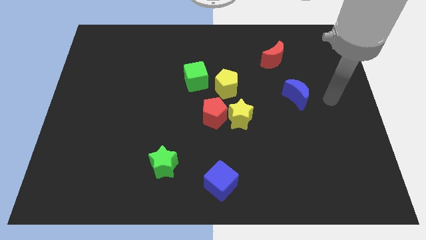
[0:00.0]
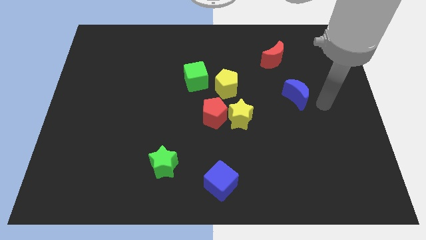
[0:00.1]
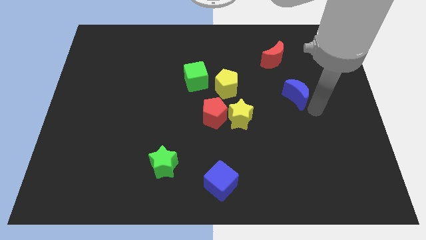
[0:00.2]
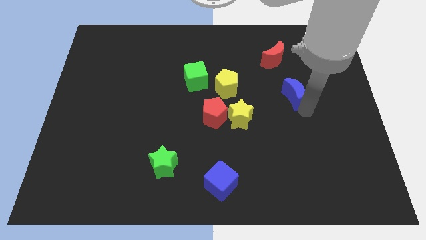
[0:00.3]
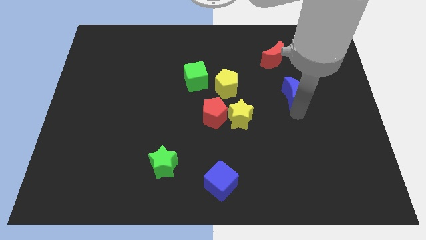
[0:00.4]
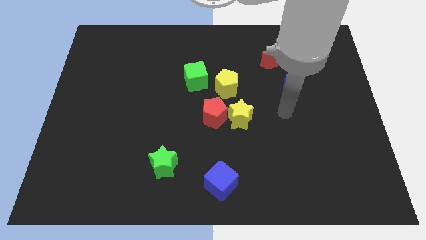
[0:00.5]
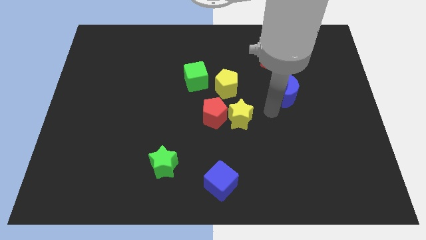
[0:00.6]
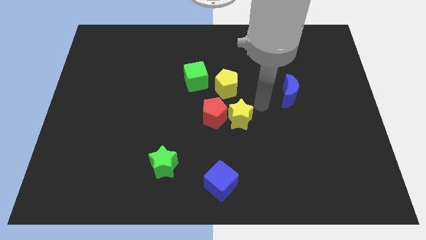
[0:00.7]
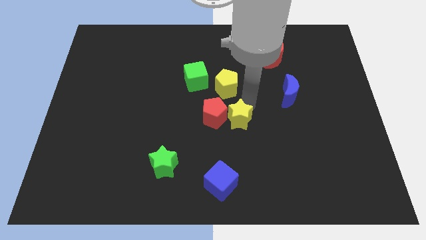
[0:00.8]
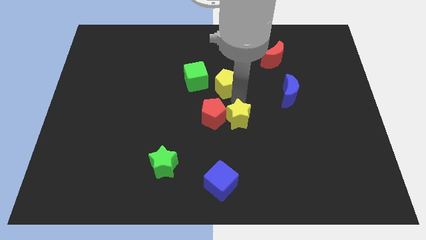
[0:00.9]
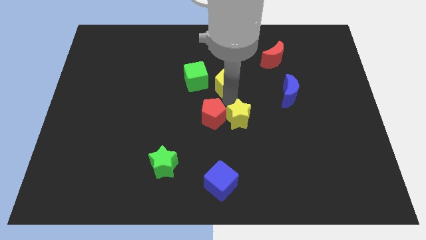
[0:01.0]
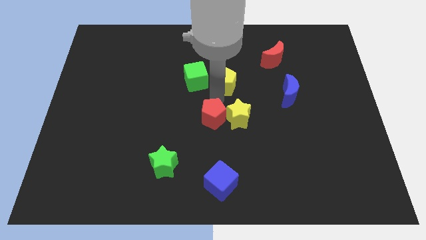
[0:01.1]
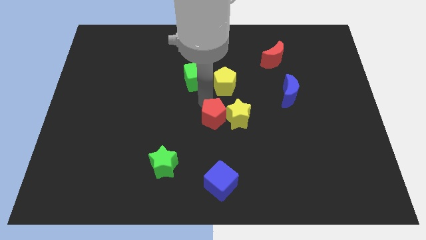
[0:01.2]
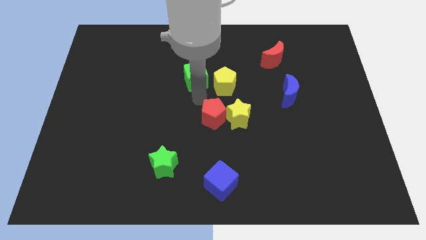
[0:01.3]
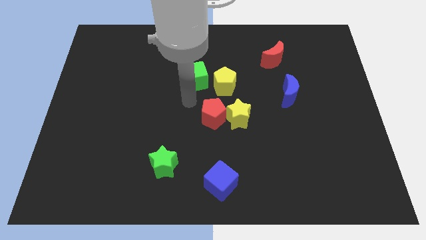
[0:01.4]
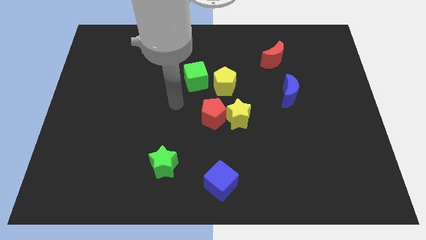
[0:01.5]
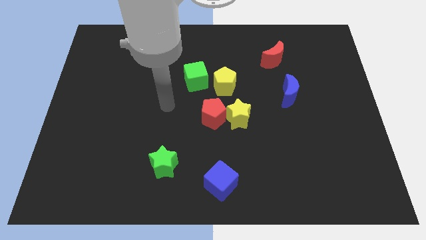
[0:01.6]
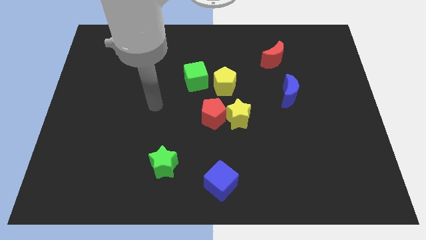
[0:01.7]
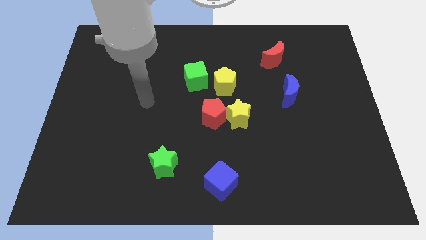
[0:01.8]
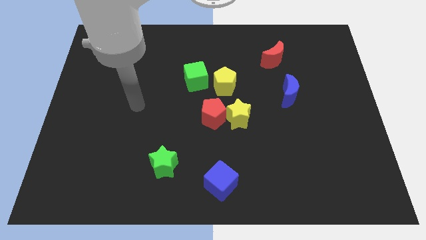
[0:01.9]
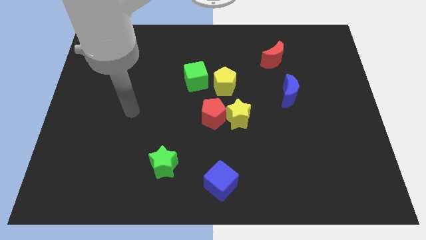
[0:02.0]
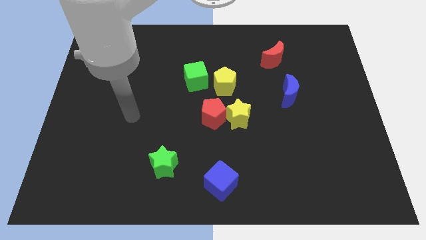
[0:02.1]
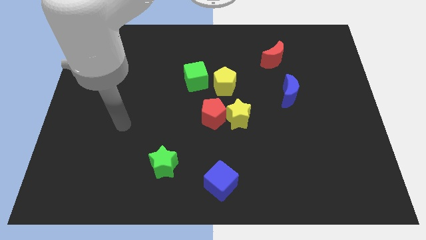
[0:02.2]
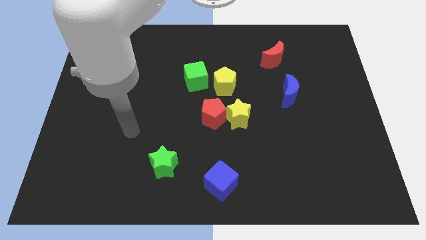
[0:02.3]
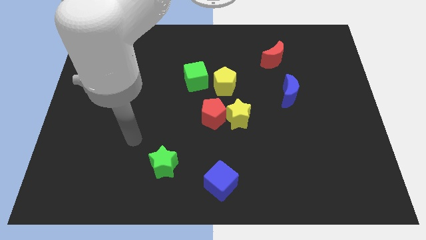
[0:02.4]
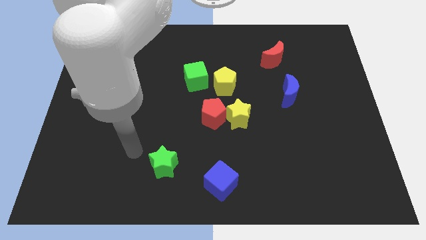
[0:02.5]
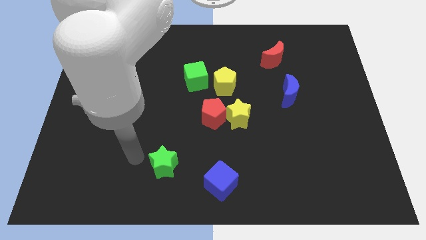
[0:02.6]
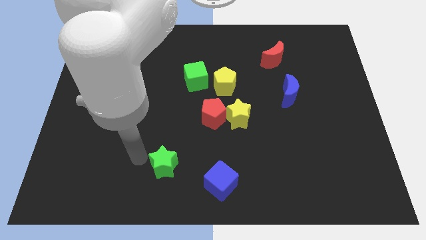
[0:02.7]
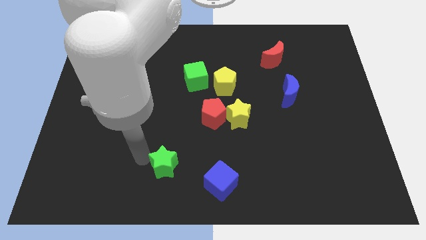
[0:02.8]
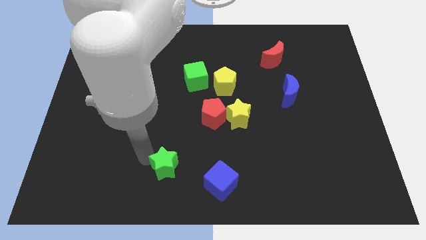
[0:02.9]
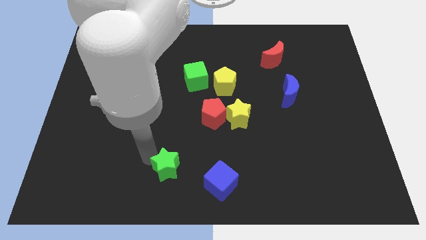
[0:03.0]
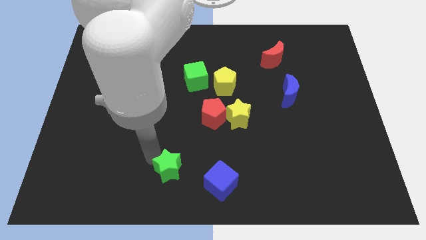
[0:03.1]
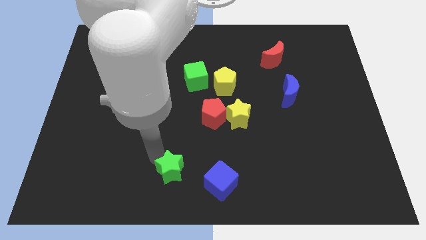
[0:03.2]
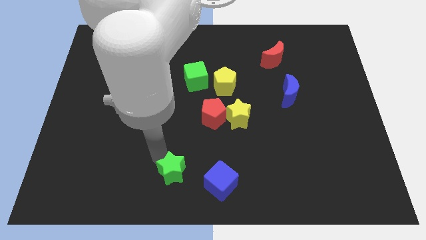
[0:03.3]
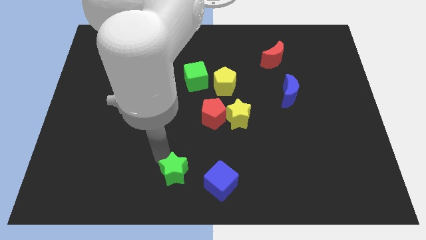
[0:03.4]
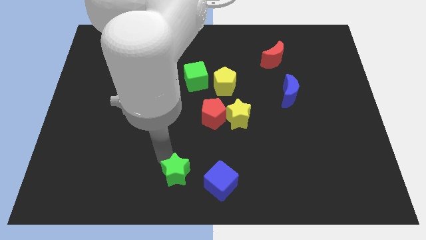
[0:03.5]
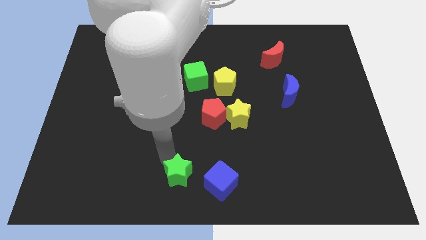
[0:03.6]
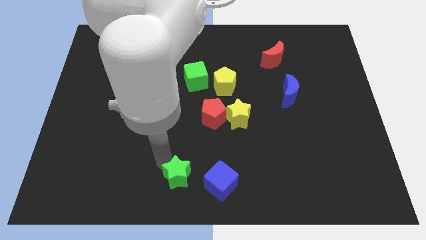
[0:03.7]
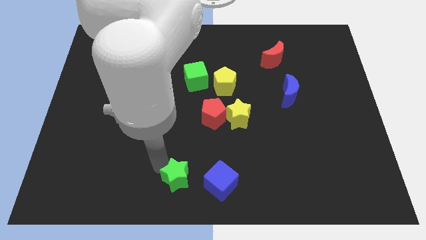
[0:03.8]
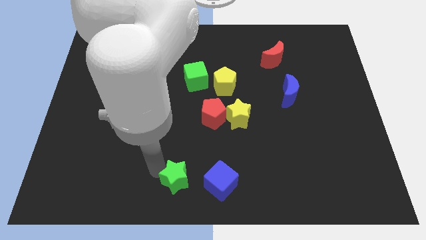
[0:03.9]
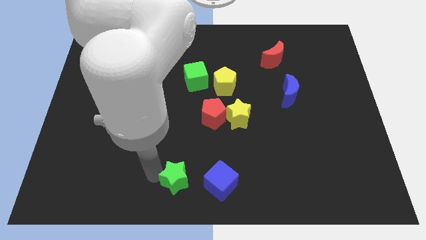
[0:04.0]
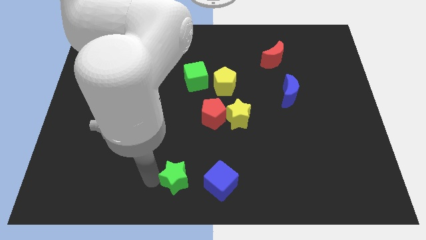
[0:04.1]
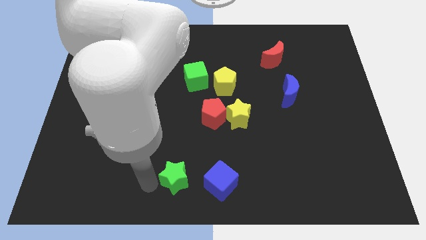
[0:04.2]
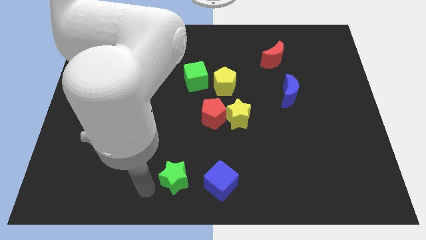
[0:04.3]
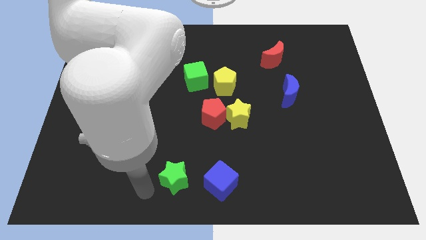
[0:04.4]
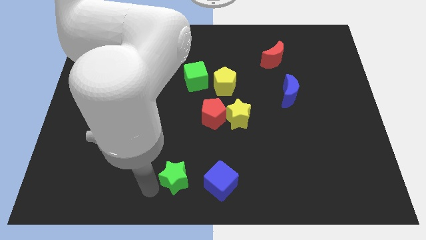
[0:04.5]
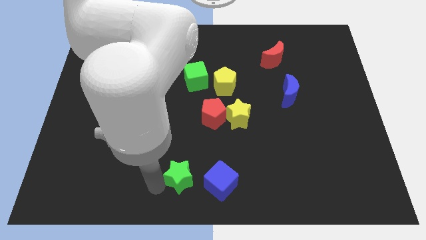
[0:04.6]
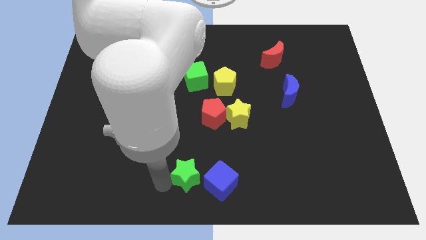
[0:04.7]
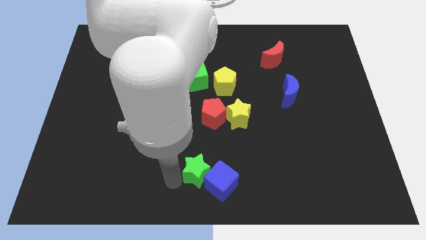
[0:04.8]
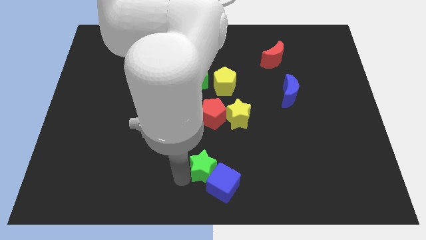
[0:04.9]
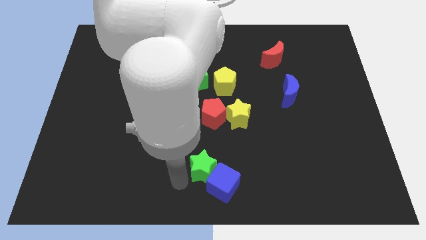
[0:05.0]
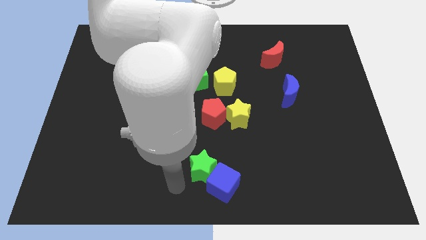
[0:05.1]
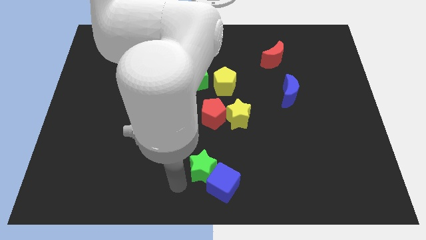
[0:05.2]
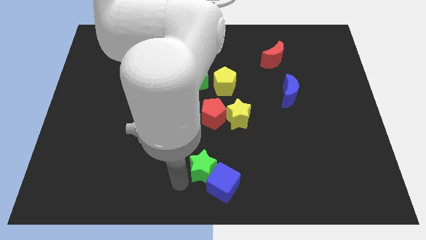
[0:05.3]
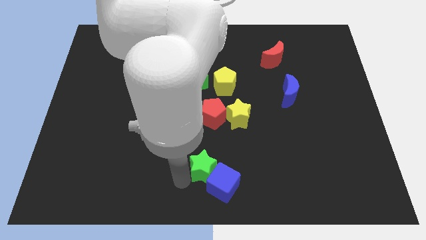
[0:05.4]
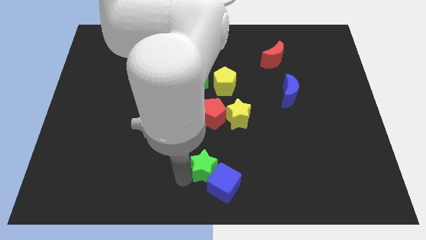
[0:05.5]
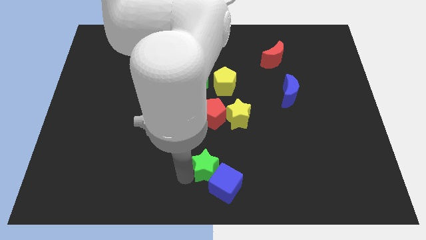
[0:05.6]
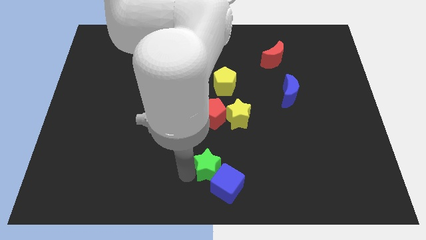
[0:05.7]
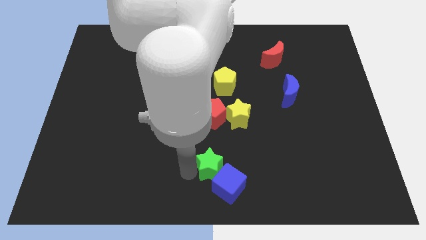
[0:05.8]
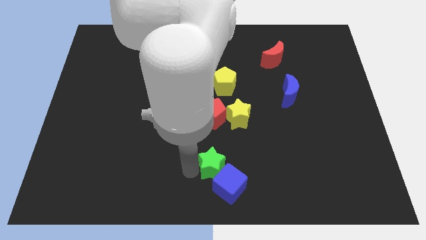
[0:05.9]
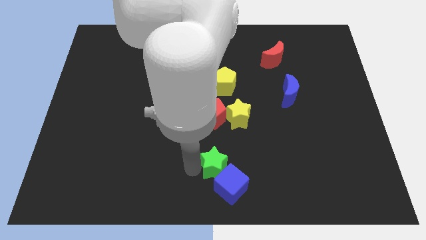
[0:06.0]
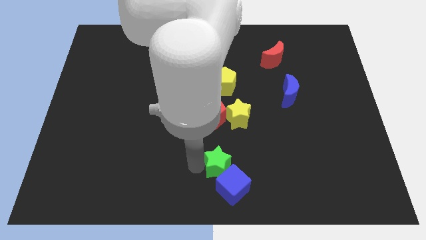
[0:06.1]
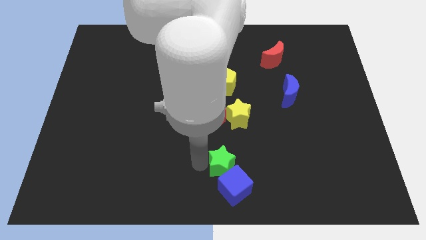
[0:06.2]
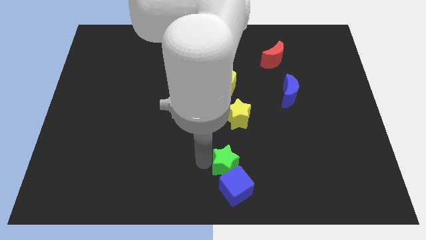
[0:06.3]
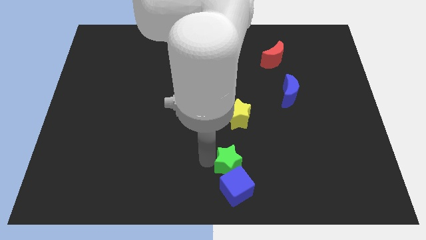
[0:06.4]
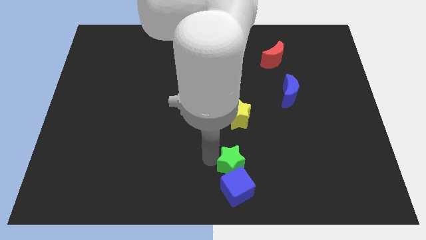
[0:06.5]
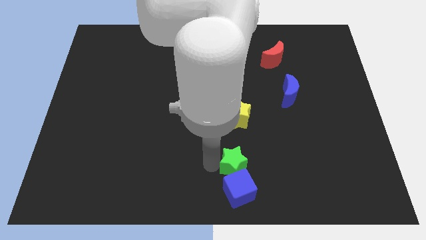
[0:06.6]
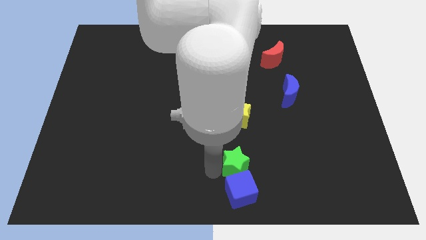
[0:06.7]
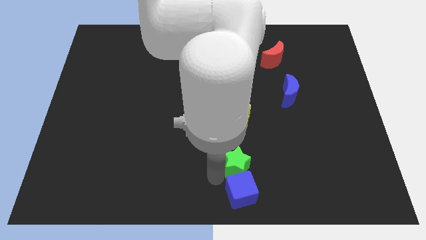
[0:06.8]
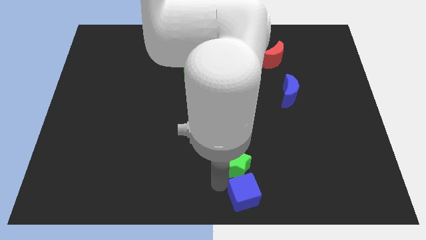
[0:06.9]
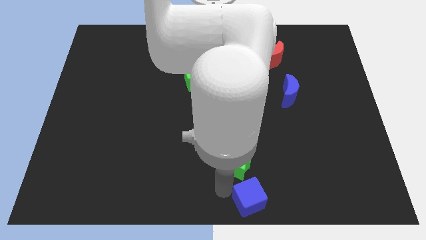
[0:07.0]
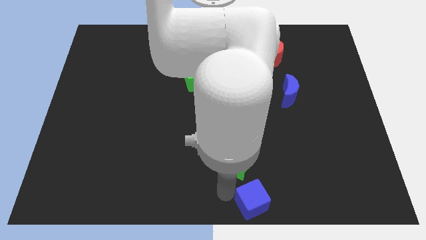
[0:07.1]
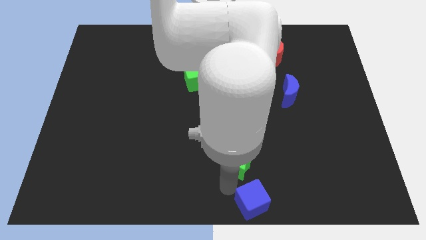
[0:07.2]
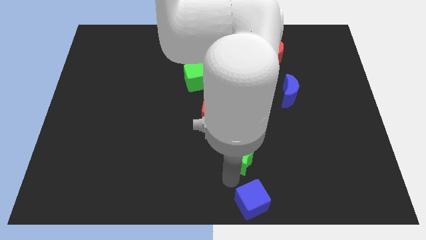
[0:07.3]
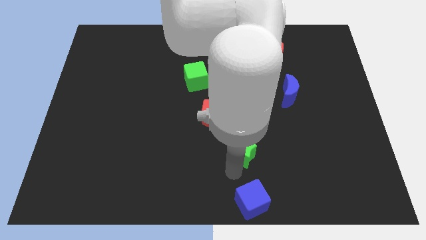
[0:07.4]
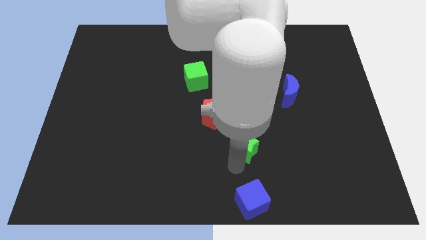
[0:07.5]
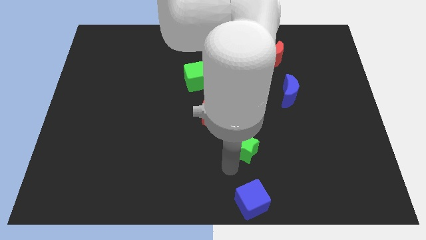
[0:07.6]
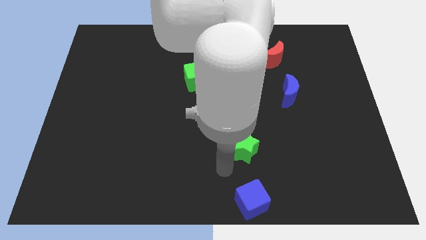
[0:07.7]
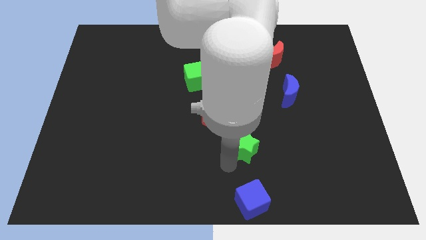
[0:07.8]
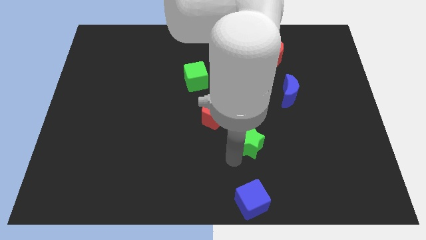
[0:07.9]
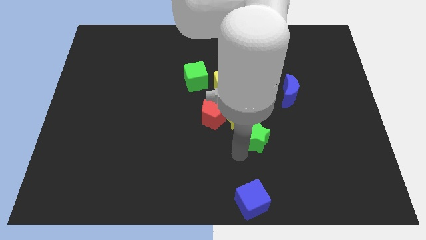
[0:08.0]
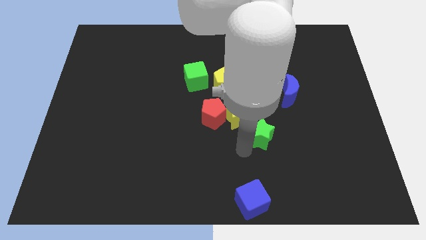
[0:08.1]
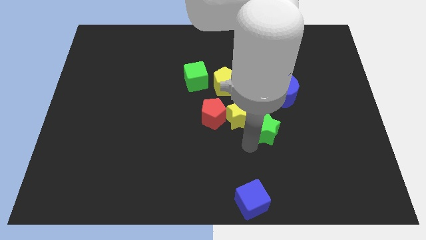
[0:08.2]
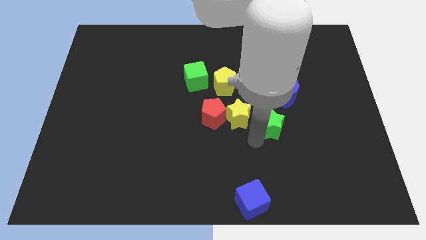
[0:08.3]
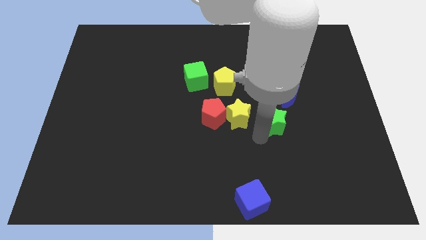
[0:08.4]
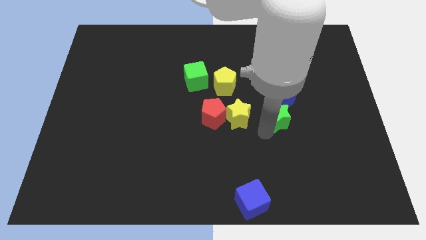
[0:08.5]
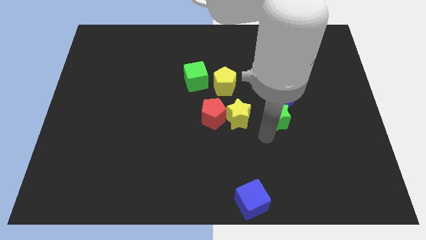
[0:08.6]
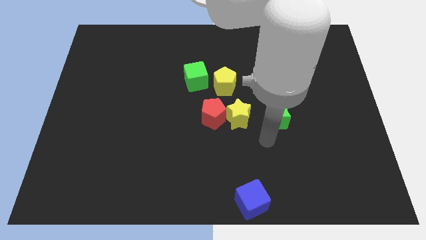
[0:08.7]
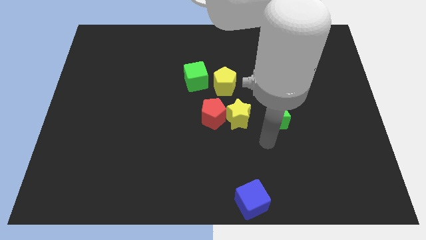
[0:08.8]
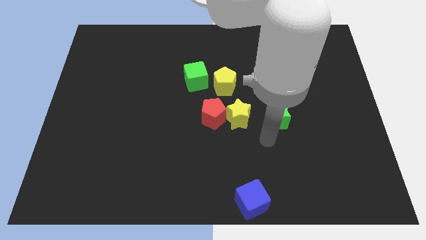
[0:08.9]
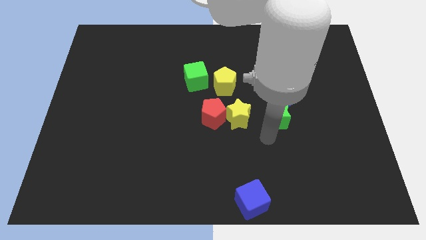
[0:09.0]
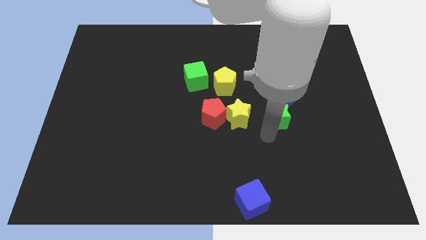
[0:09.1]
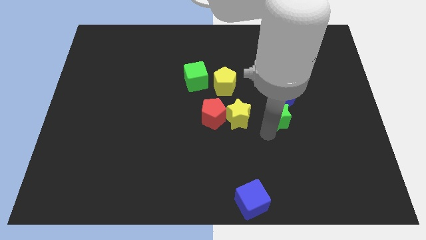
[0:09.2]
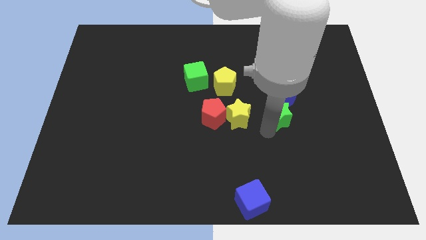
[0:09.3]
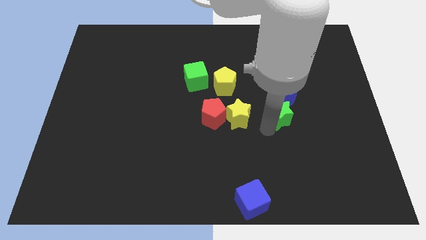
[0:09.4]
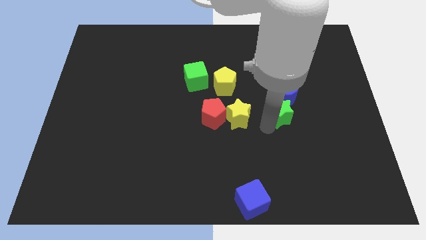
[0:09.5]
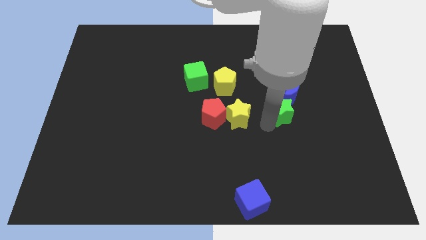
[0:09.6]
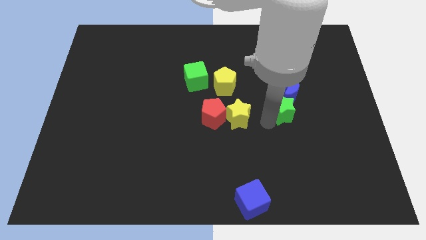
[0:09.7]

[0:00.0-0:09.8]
move the green star next to the blue moon
